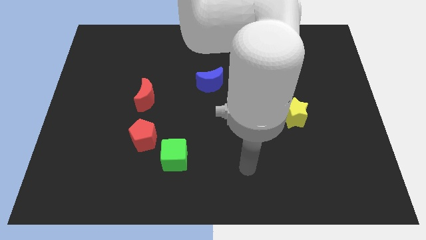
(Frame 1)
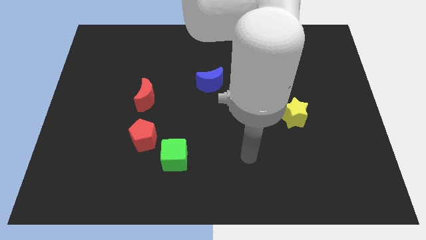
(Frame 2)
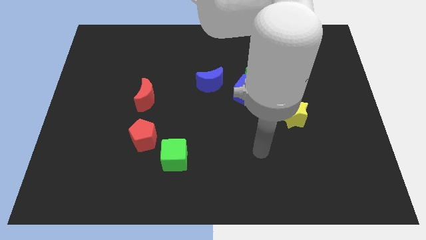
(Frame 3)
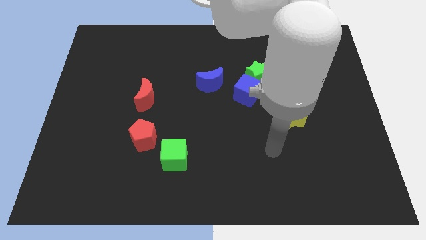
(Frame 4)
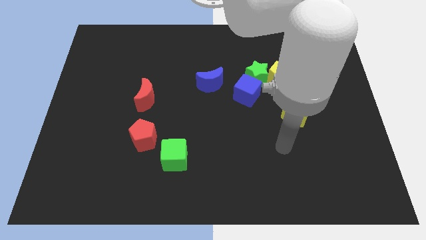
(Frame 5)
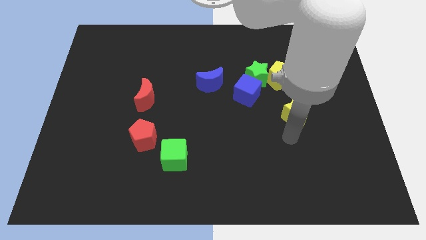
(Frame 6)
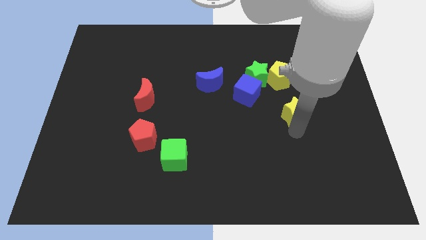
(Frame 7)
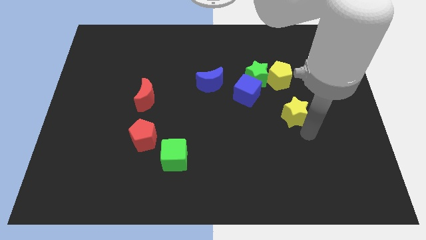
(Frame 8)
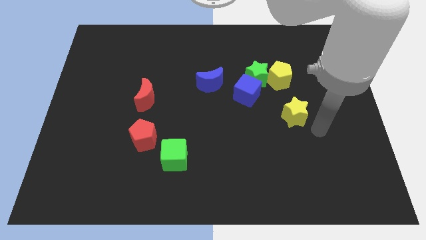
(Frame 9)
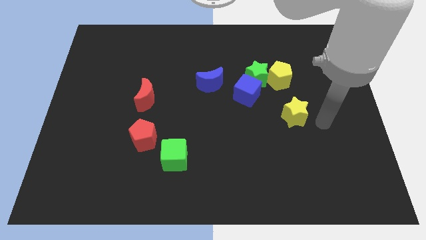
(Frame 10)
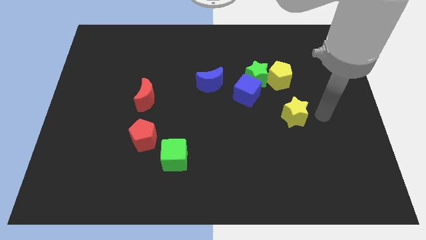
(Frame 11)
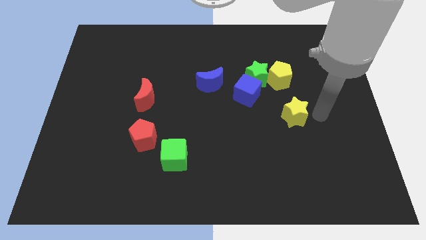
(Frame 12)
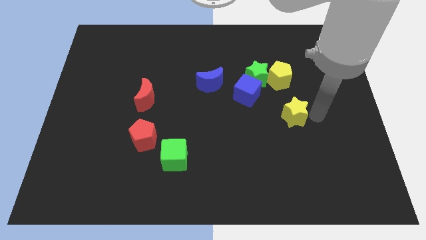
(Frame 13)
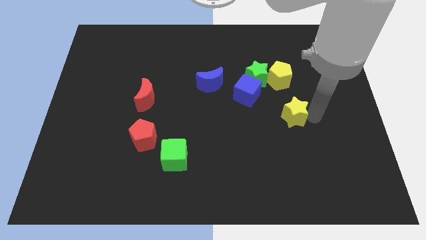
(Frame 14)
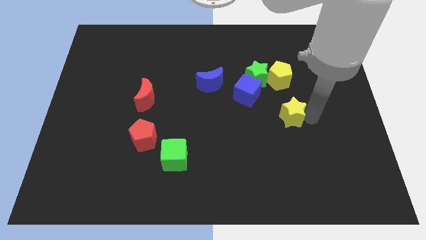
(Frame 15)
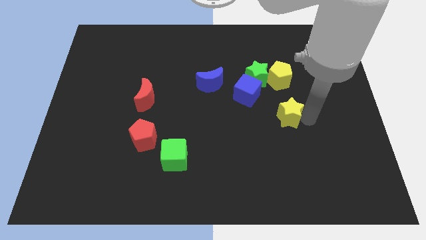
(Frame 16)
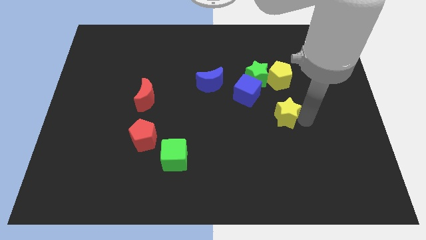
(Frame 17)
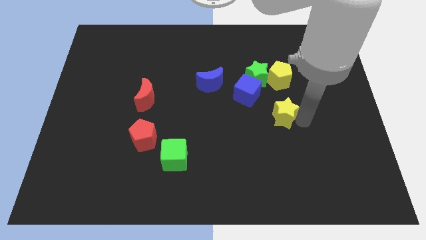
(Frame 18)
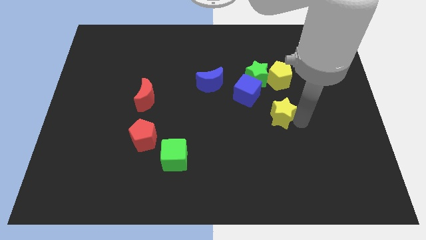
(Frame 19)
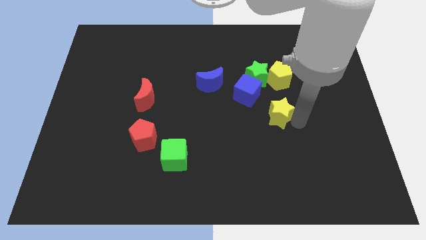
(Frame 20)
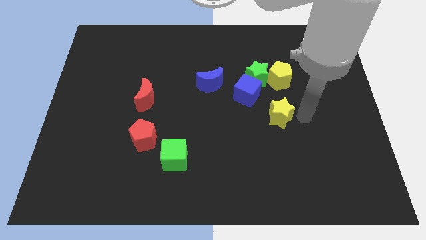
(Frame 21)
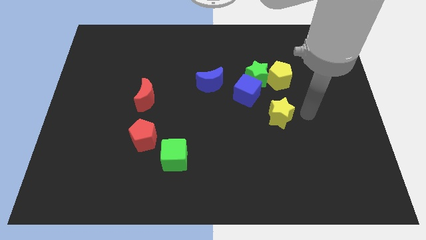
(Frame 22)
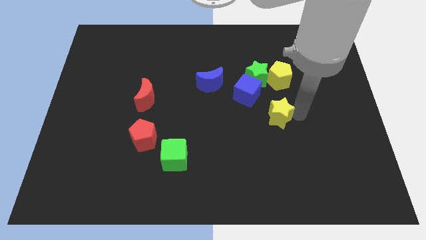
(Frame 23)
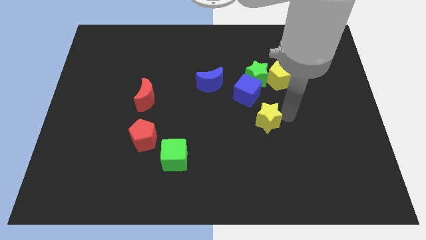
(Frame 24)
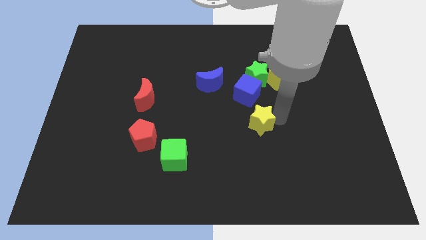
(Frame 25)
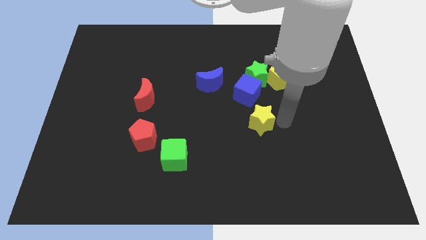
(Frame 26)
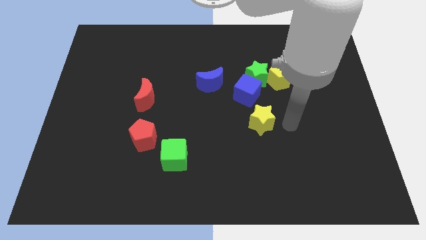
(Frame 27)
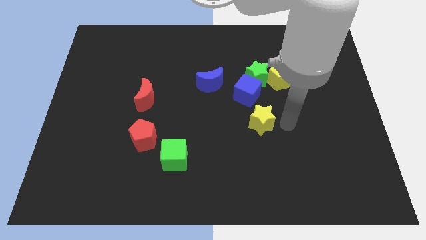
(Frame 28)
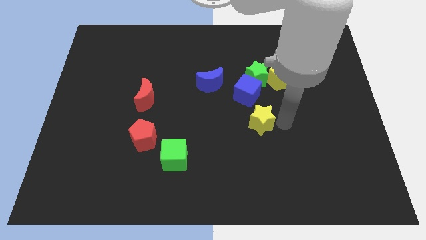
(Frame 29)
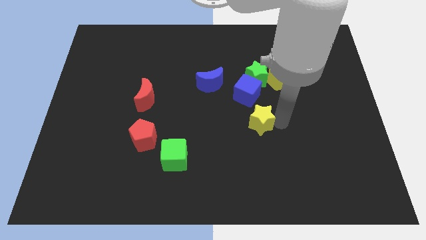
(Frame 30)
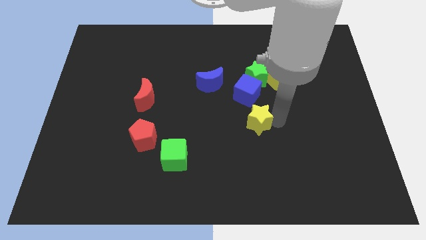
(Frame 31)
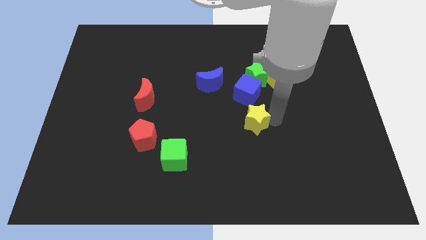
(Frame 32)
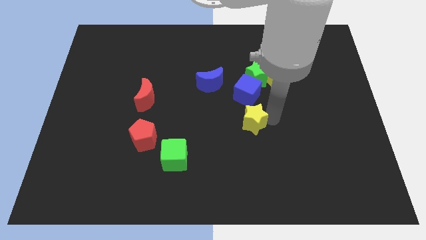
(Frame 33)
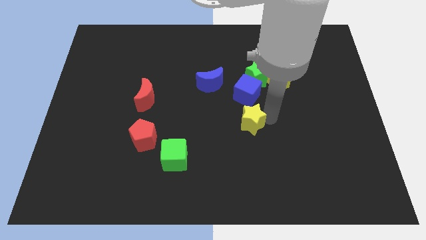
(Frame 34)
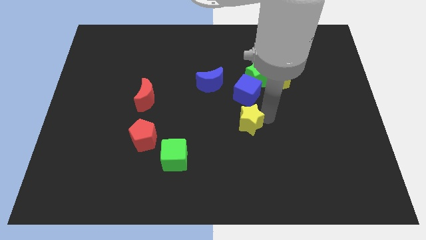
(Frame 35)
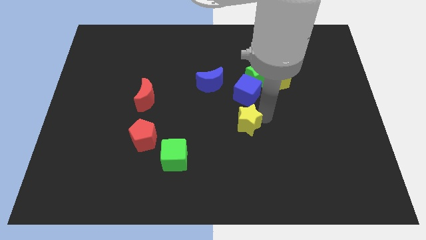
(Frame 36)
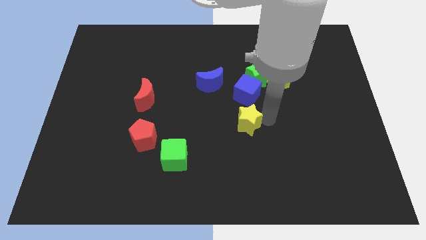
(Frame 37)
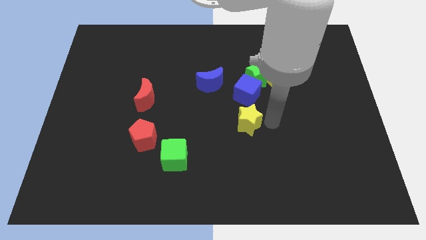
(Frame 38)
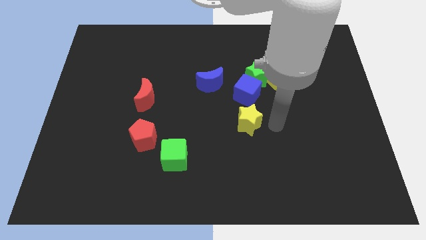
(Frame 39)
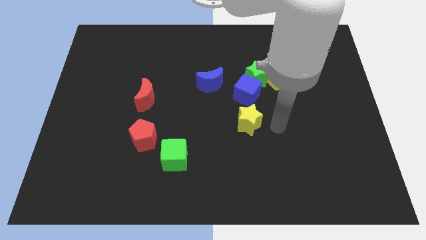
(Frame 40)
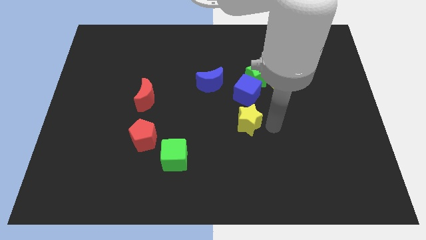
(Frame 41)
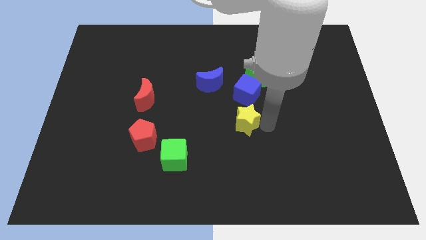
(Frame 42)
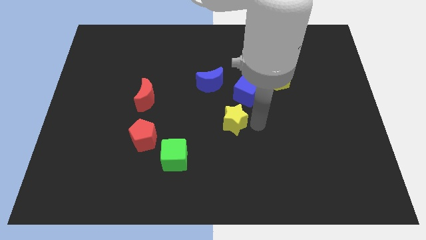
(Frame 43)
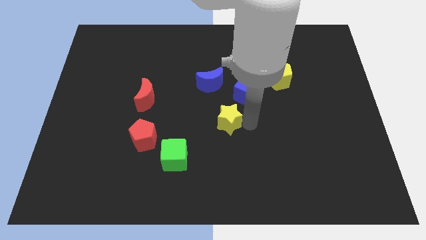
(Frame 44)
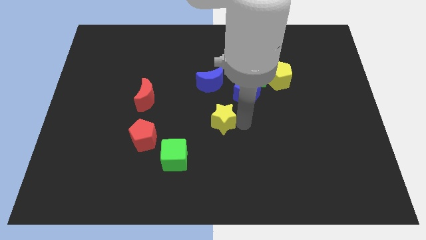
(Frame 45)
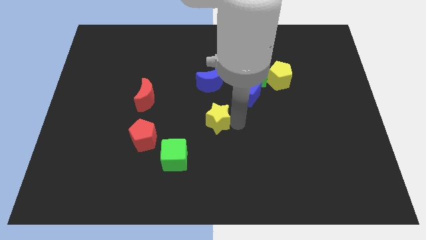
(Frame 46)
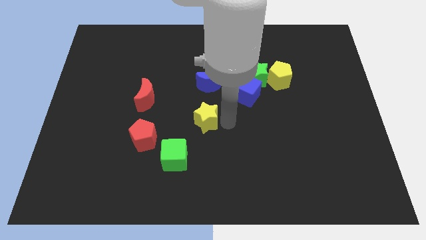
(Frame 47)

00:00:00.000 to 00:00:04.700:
move the yellow star to the left

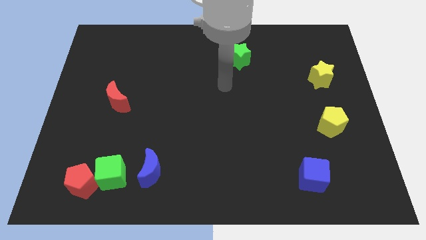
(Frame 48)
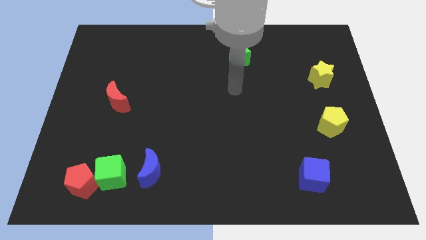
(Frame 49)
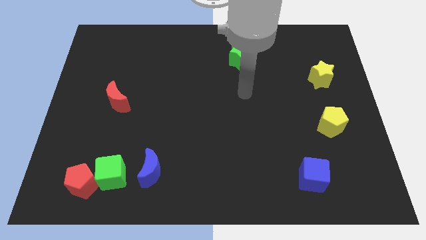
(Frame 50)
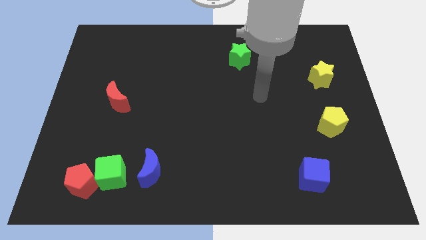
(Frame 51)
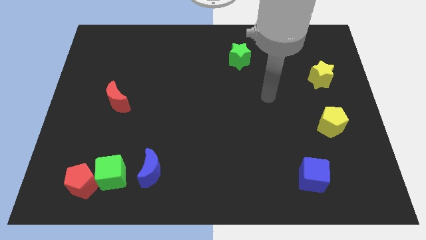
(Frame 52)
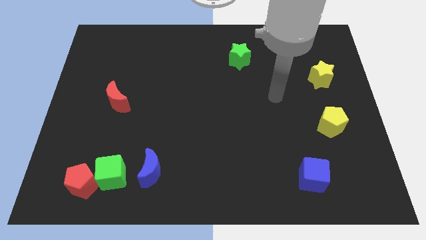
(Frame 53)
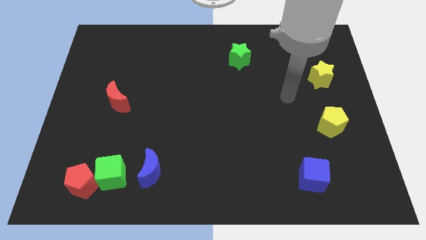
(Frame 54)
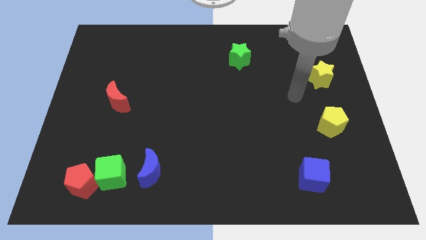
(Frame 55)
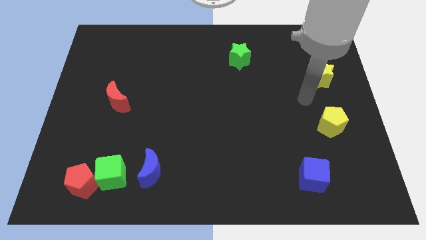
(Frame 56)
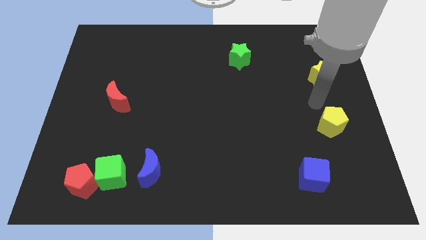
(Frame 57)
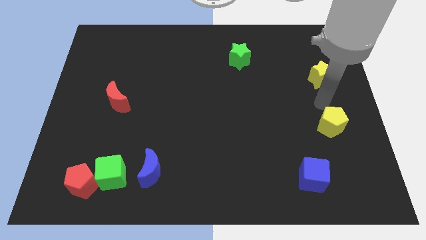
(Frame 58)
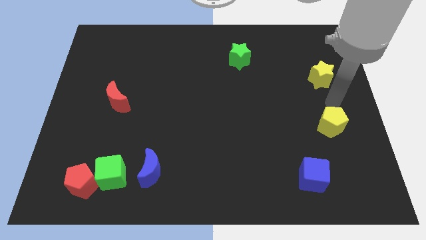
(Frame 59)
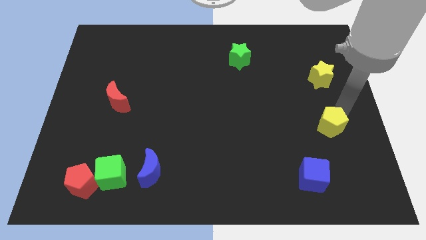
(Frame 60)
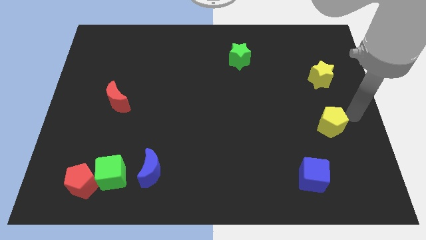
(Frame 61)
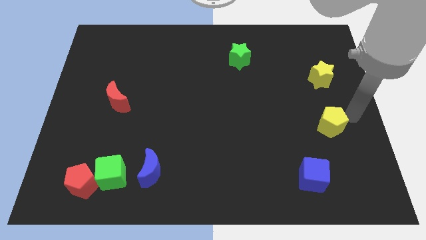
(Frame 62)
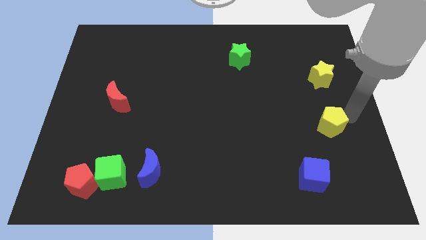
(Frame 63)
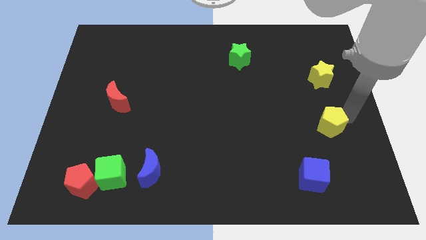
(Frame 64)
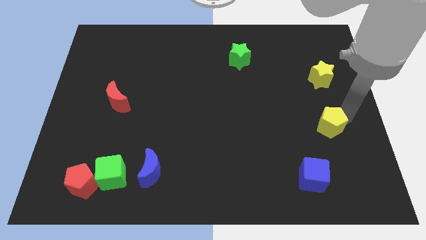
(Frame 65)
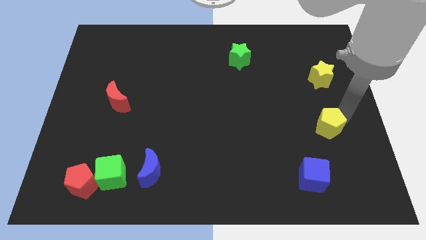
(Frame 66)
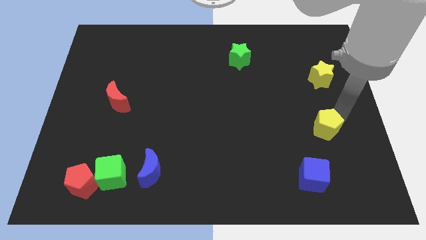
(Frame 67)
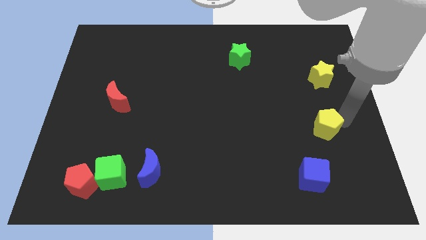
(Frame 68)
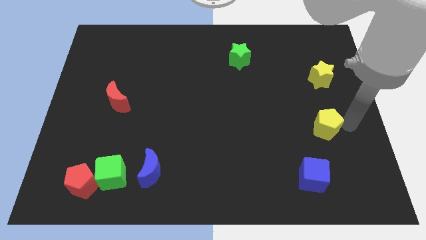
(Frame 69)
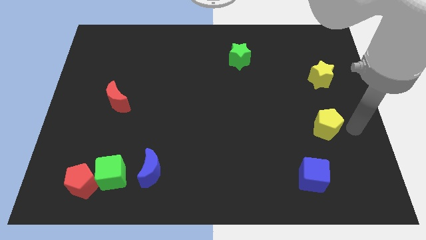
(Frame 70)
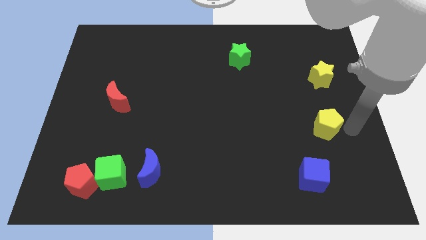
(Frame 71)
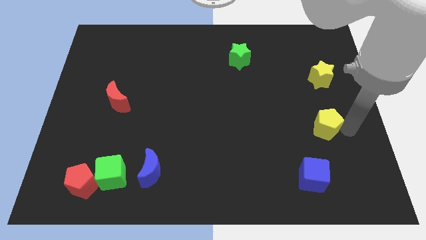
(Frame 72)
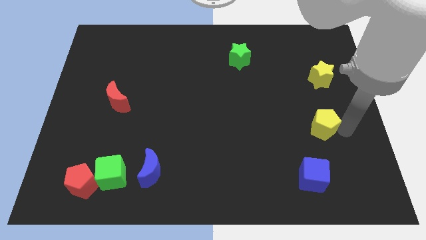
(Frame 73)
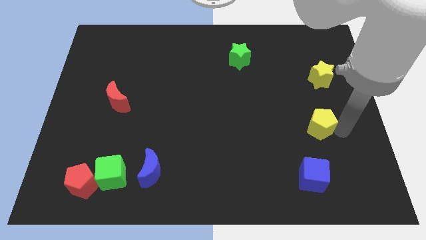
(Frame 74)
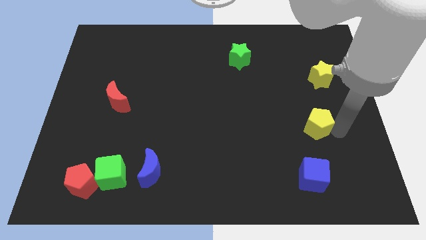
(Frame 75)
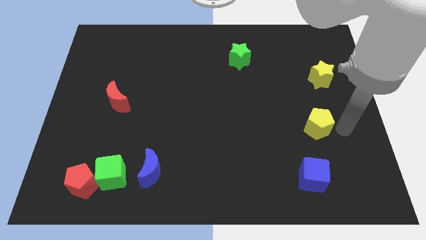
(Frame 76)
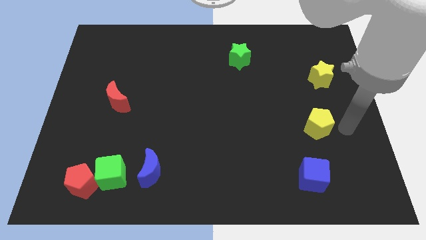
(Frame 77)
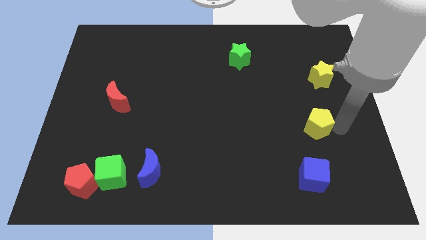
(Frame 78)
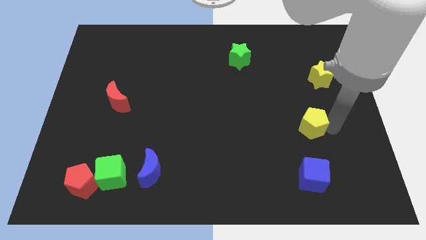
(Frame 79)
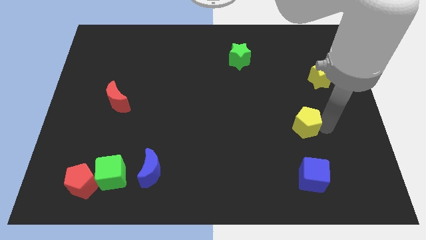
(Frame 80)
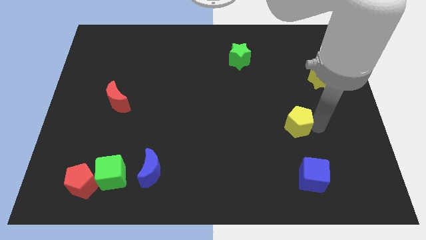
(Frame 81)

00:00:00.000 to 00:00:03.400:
move the yellow pentagon left slightly

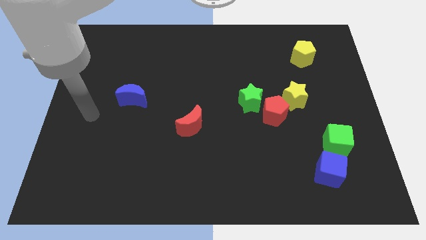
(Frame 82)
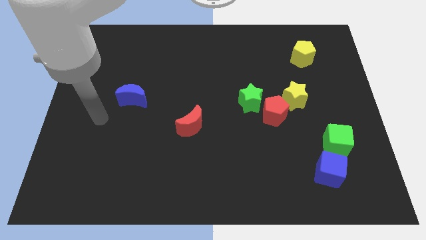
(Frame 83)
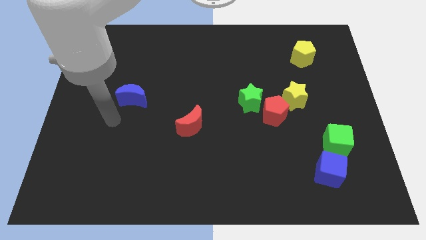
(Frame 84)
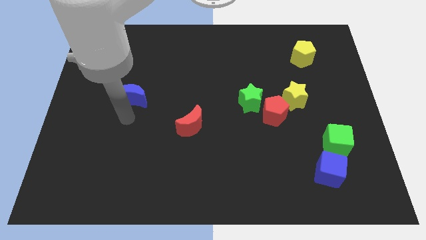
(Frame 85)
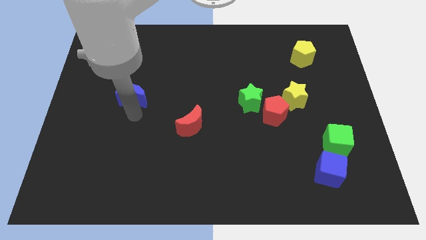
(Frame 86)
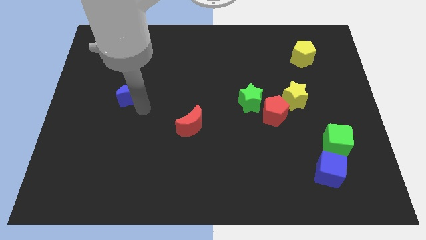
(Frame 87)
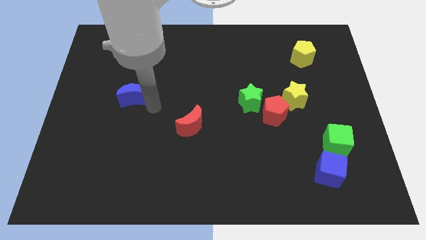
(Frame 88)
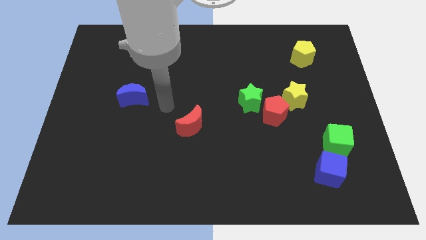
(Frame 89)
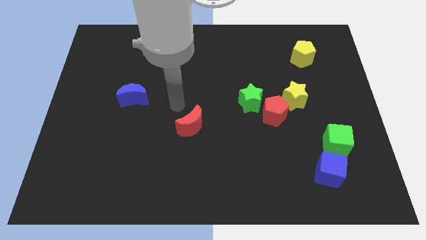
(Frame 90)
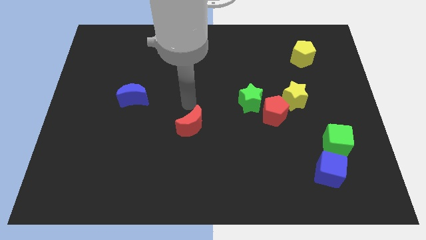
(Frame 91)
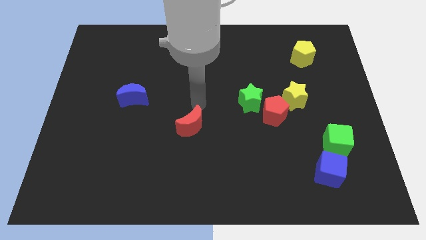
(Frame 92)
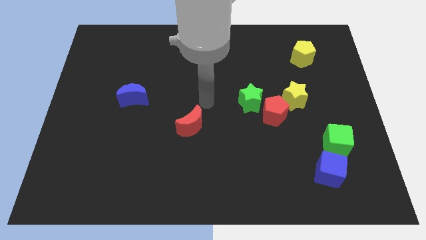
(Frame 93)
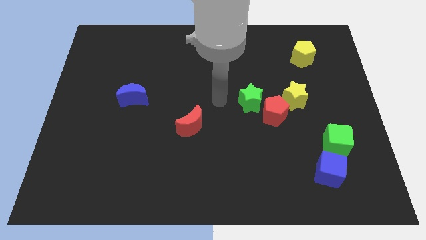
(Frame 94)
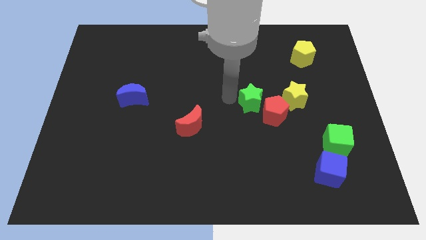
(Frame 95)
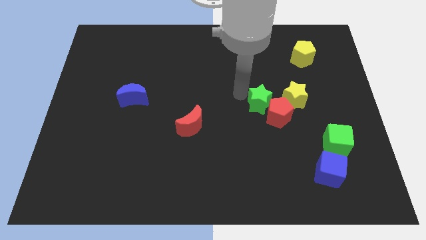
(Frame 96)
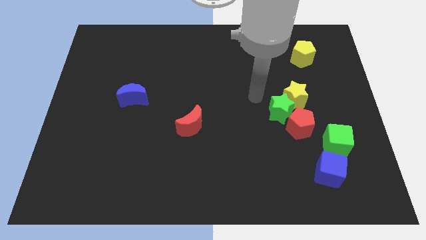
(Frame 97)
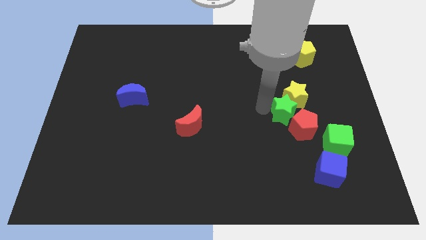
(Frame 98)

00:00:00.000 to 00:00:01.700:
move the red pentagon a little diagonally downwards and to the right
